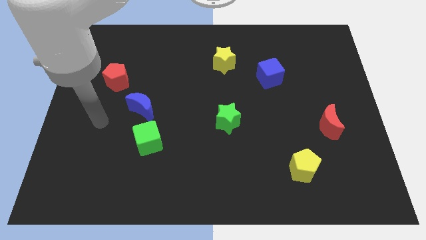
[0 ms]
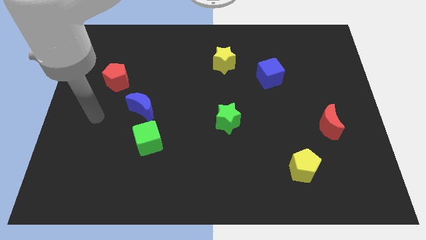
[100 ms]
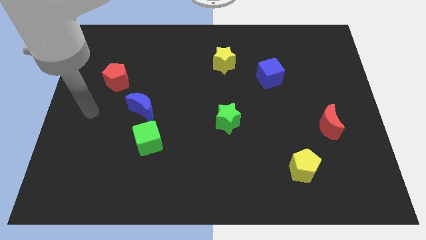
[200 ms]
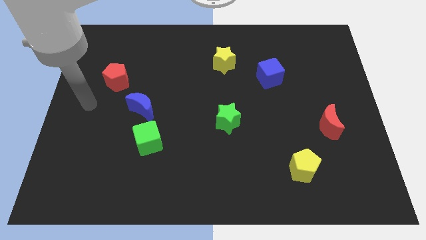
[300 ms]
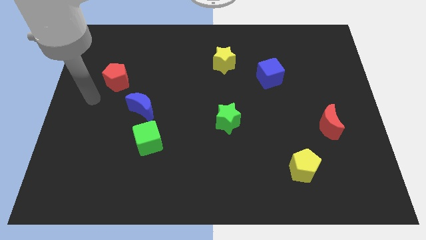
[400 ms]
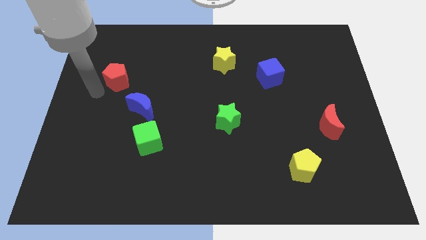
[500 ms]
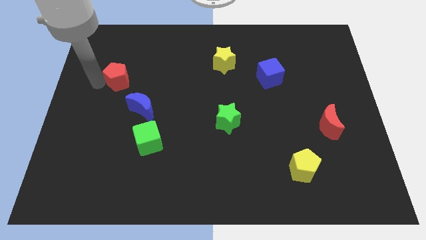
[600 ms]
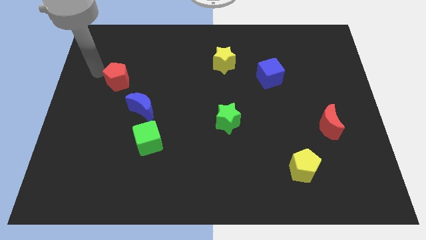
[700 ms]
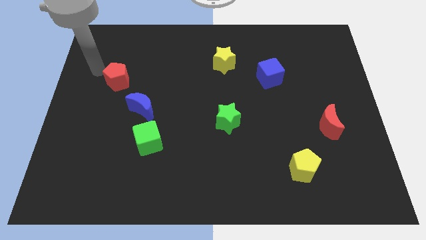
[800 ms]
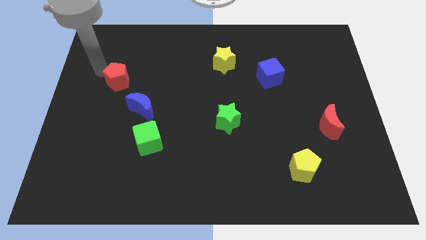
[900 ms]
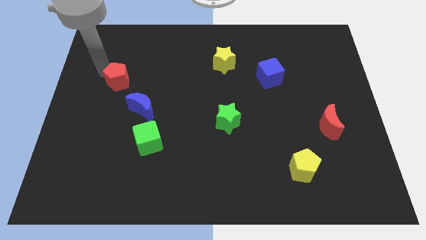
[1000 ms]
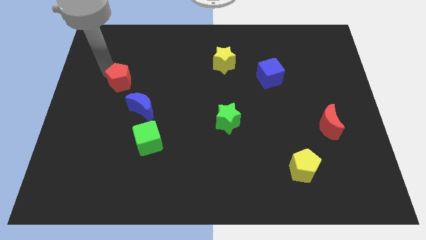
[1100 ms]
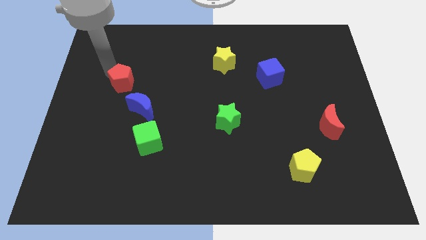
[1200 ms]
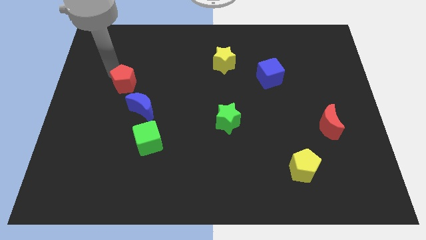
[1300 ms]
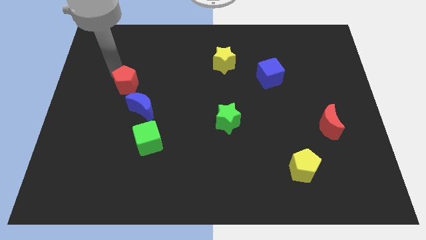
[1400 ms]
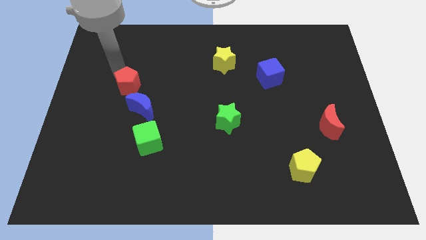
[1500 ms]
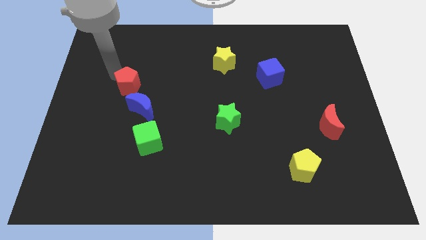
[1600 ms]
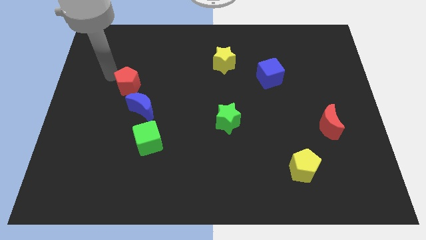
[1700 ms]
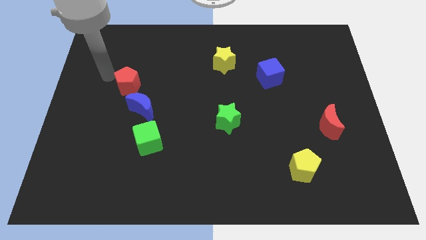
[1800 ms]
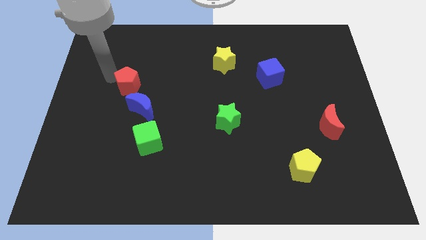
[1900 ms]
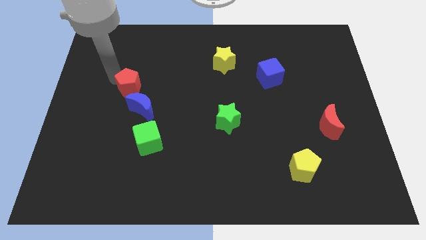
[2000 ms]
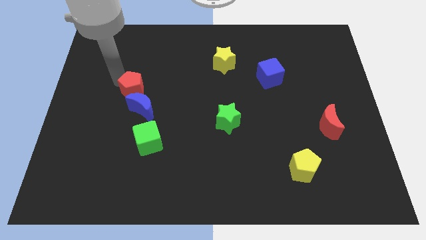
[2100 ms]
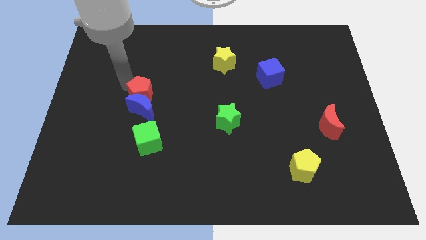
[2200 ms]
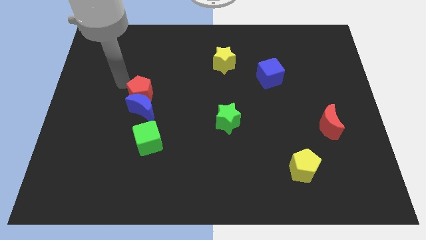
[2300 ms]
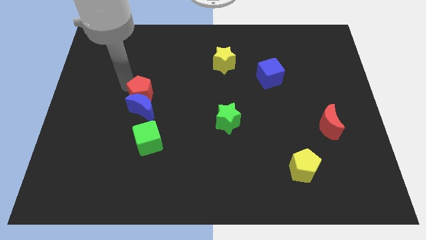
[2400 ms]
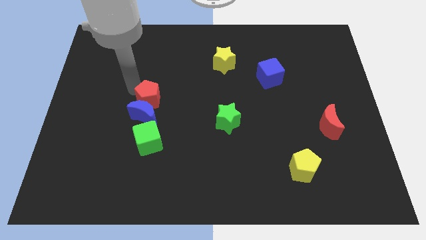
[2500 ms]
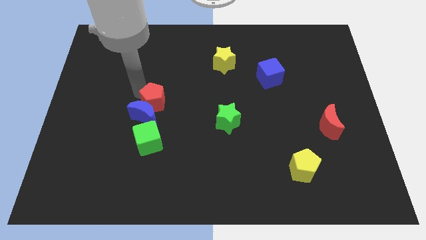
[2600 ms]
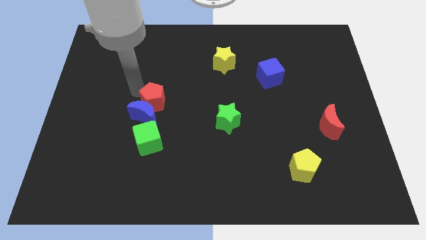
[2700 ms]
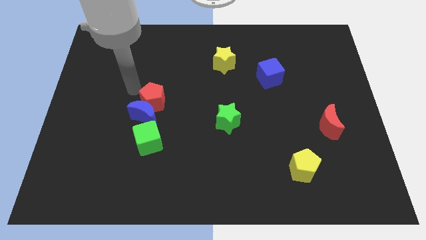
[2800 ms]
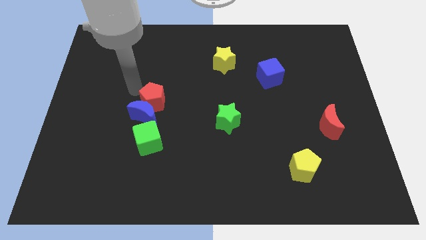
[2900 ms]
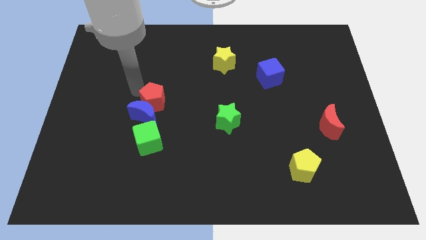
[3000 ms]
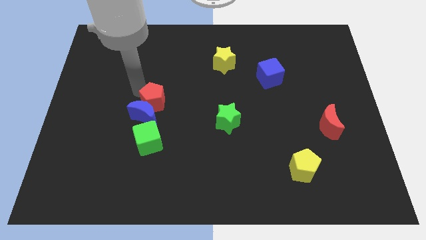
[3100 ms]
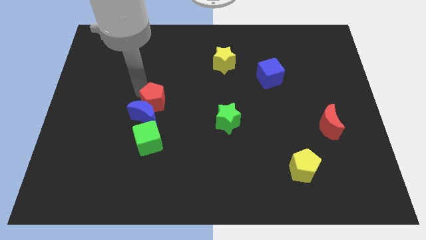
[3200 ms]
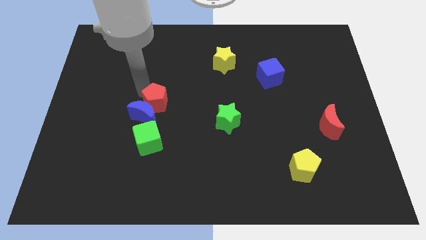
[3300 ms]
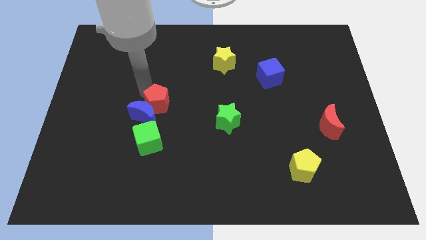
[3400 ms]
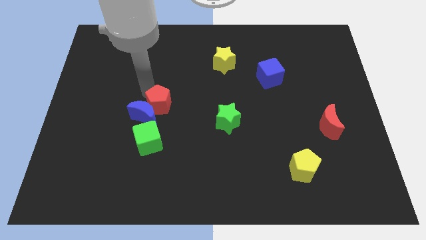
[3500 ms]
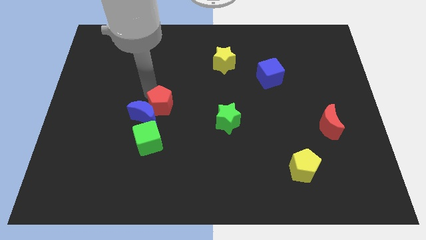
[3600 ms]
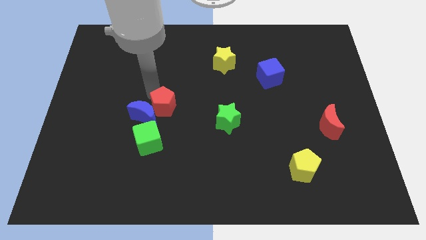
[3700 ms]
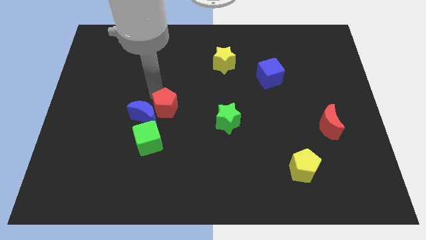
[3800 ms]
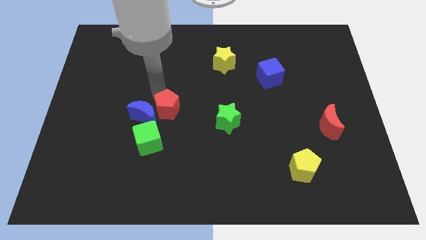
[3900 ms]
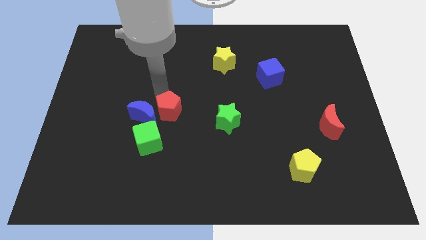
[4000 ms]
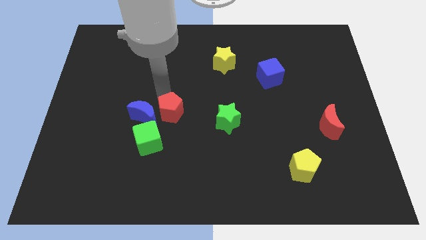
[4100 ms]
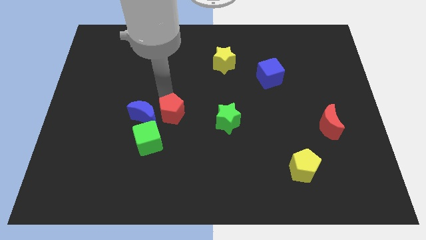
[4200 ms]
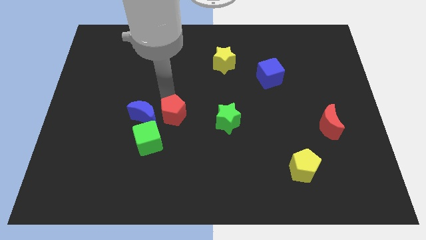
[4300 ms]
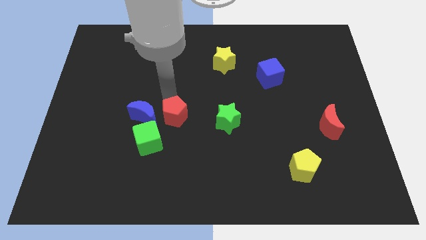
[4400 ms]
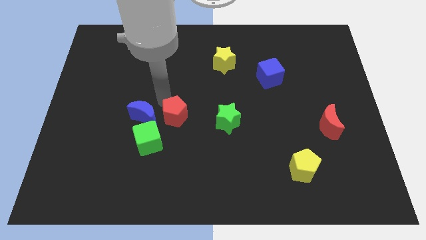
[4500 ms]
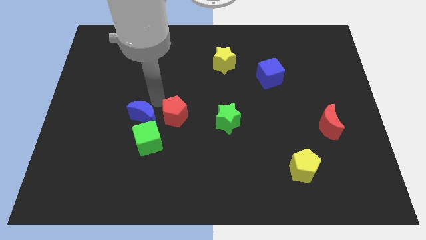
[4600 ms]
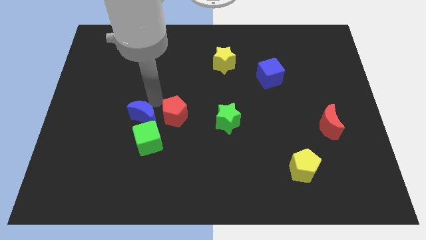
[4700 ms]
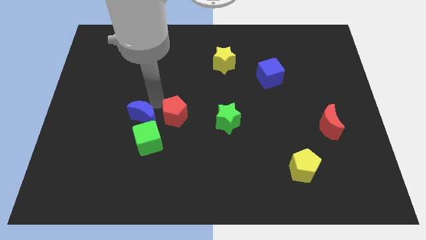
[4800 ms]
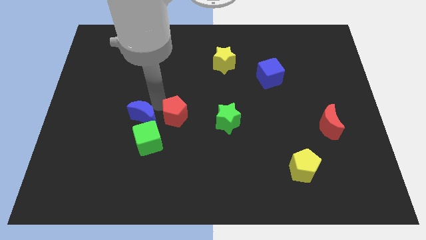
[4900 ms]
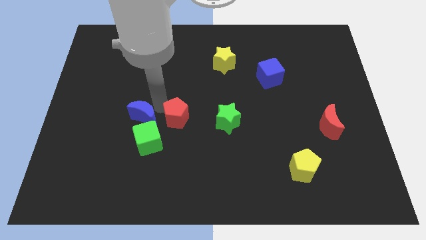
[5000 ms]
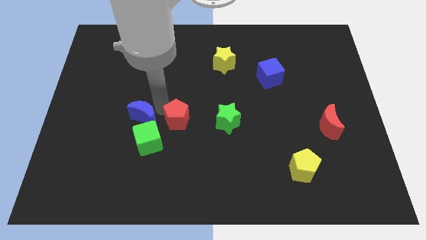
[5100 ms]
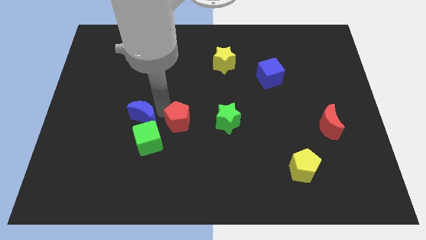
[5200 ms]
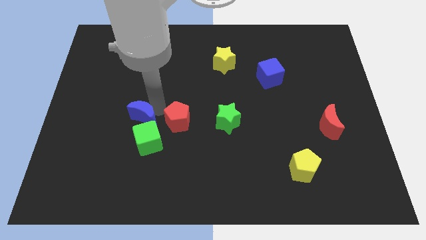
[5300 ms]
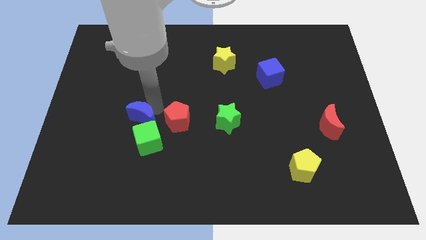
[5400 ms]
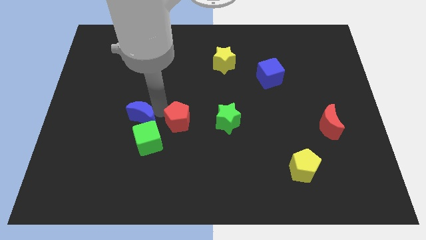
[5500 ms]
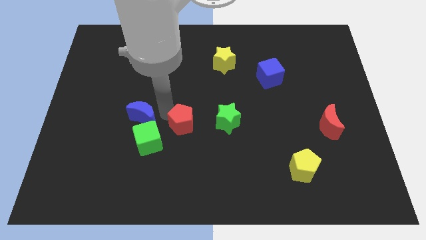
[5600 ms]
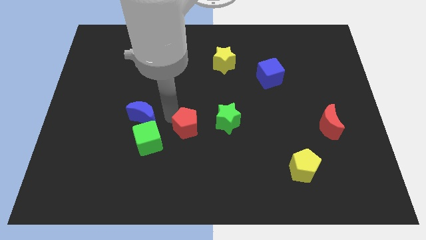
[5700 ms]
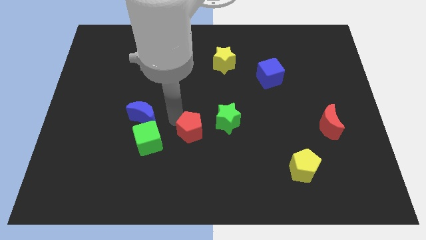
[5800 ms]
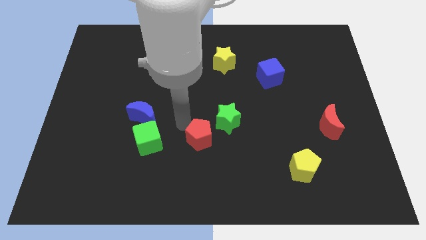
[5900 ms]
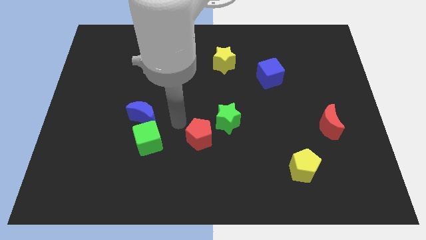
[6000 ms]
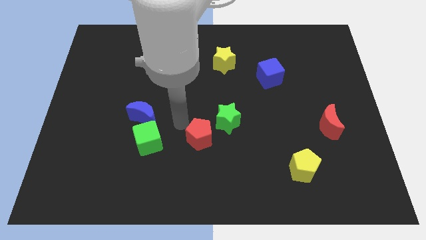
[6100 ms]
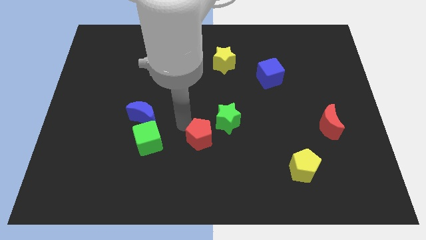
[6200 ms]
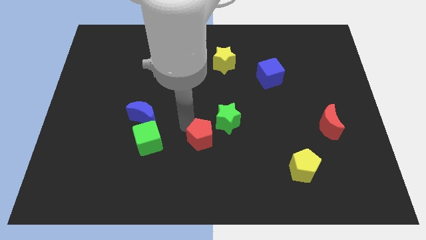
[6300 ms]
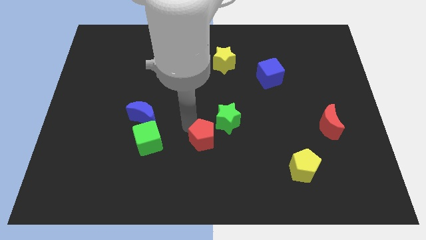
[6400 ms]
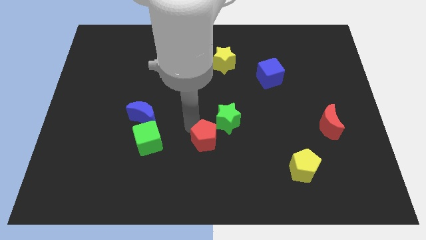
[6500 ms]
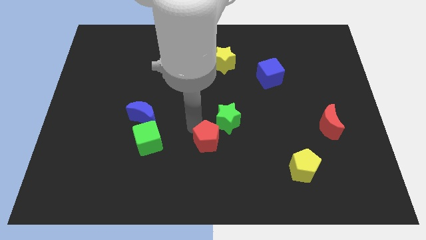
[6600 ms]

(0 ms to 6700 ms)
push the red pentagon below the green star
